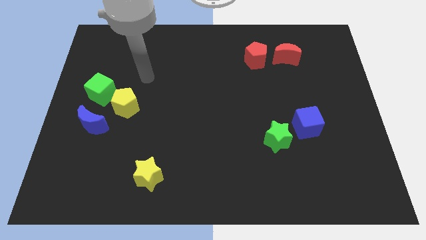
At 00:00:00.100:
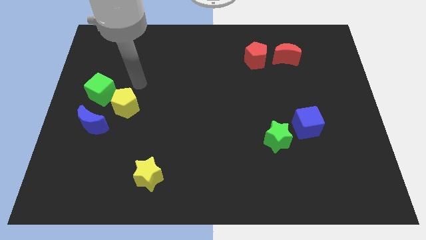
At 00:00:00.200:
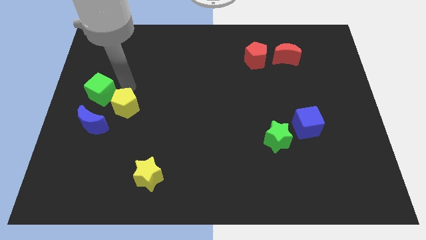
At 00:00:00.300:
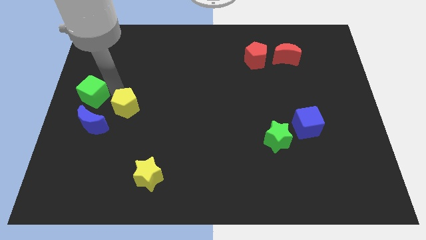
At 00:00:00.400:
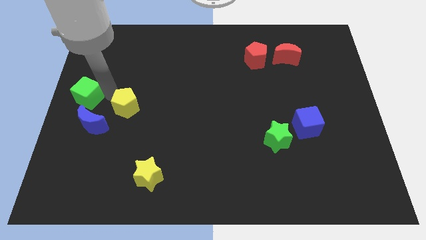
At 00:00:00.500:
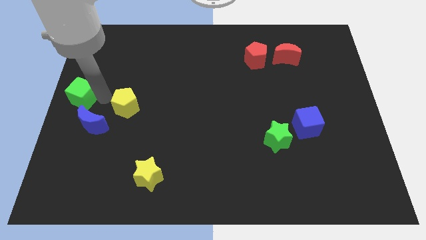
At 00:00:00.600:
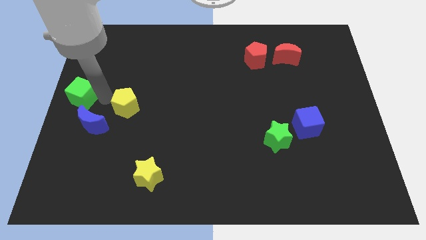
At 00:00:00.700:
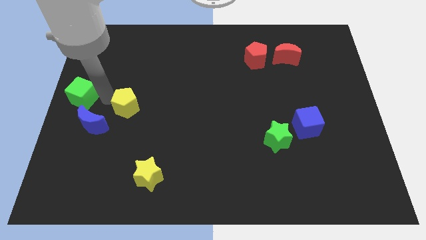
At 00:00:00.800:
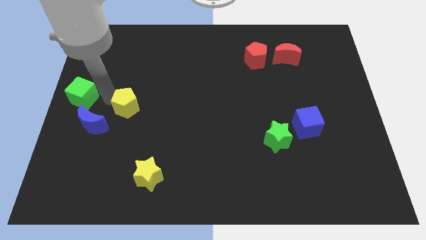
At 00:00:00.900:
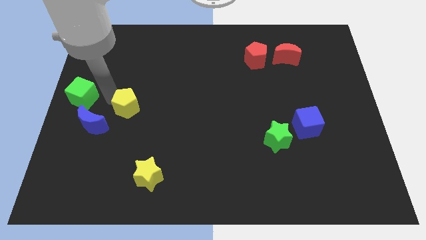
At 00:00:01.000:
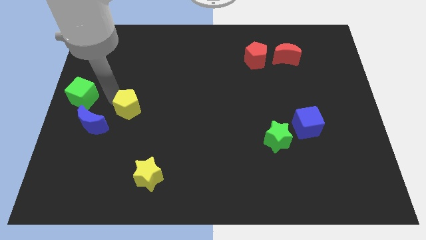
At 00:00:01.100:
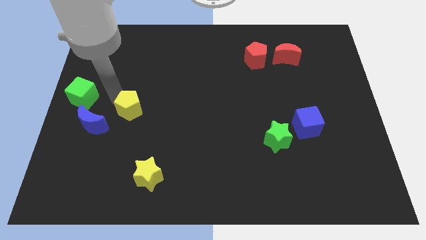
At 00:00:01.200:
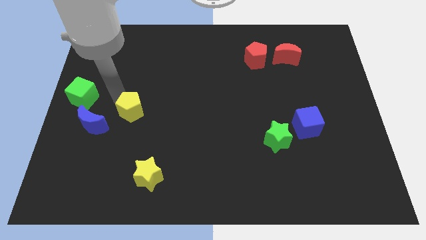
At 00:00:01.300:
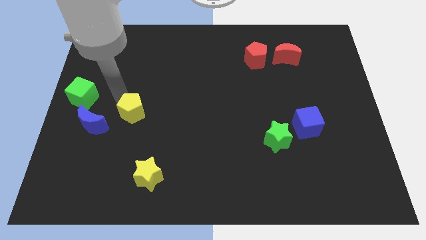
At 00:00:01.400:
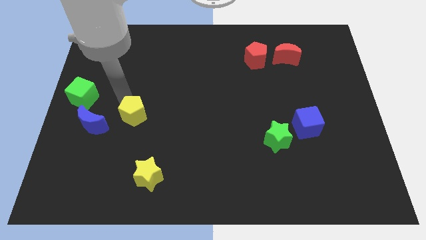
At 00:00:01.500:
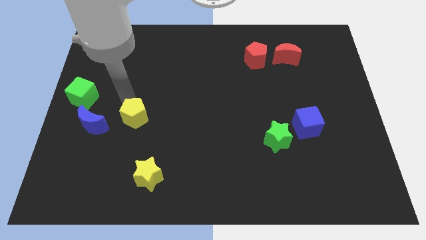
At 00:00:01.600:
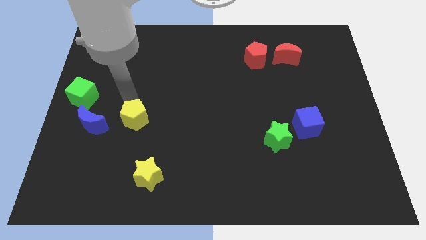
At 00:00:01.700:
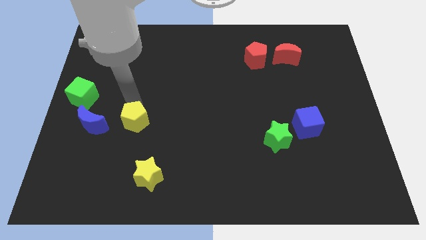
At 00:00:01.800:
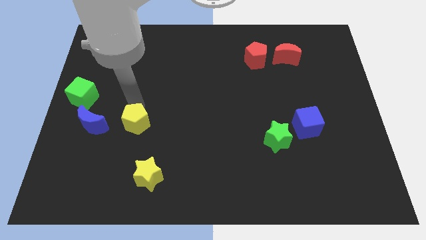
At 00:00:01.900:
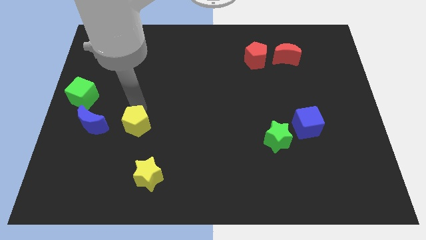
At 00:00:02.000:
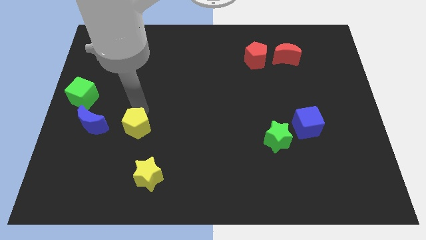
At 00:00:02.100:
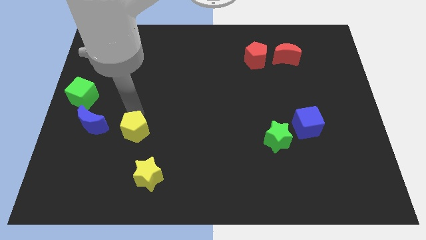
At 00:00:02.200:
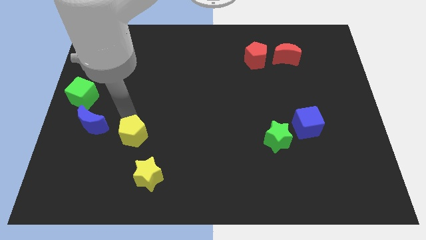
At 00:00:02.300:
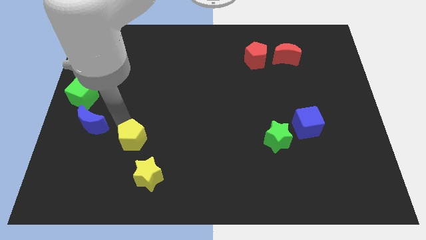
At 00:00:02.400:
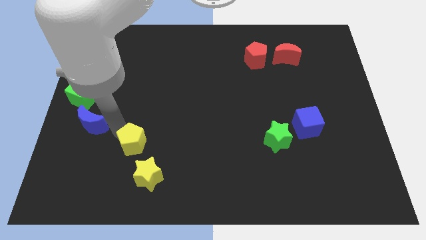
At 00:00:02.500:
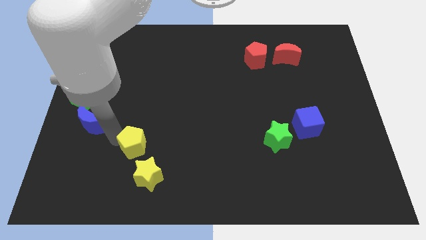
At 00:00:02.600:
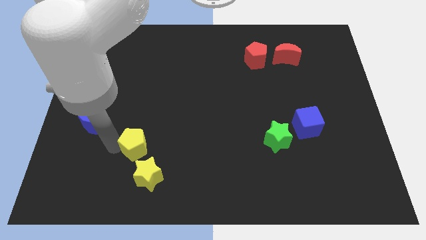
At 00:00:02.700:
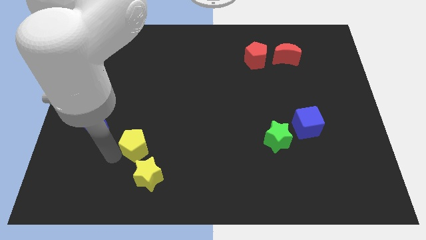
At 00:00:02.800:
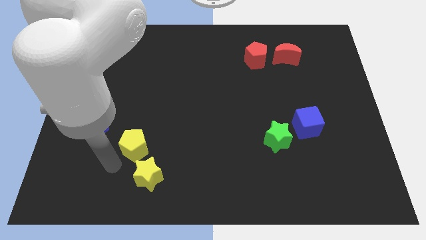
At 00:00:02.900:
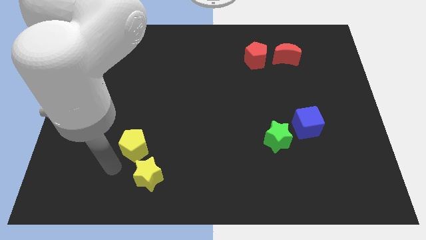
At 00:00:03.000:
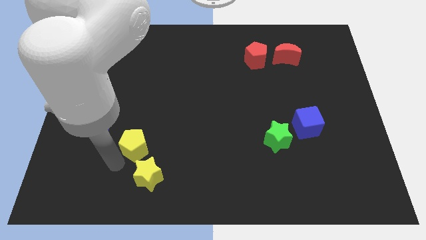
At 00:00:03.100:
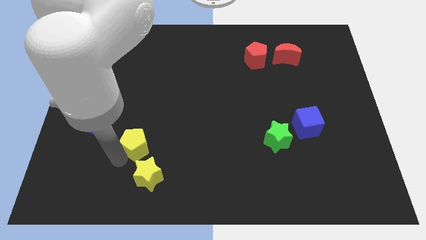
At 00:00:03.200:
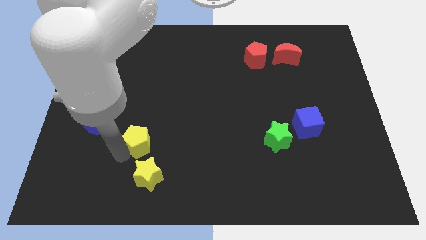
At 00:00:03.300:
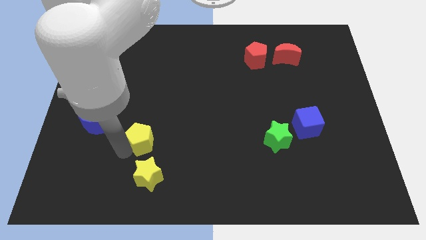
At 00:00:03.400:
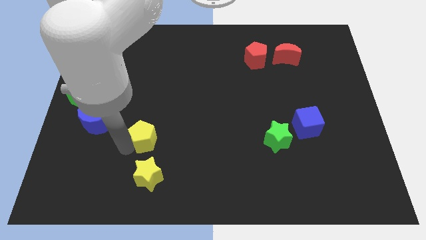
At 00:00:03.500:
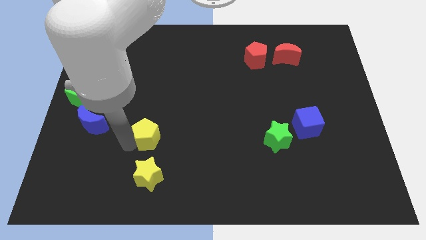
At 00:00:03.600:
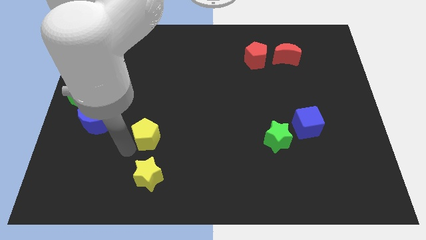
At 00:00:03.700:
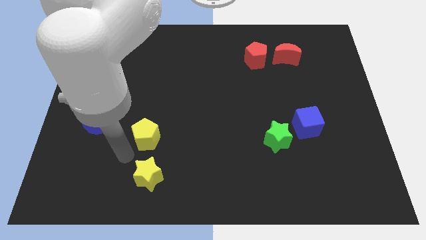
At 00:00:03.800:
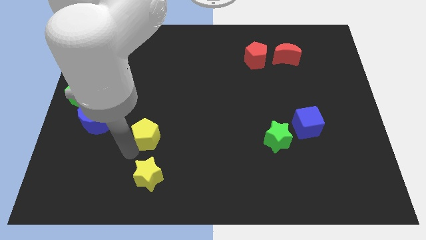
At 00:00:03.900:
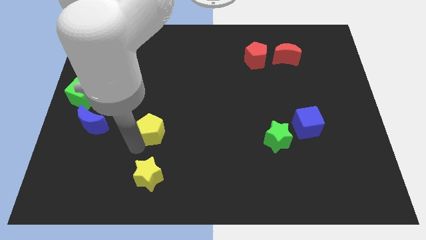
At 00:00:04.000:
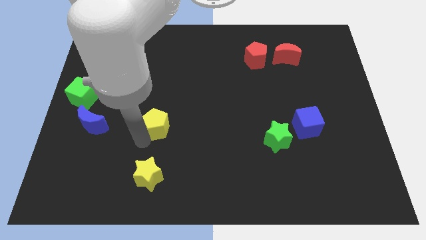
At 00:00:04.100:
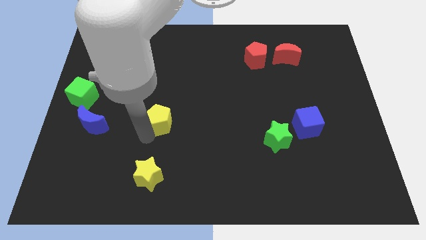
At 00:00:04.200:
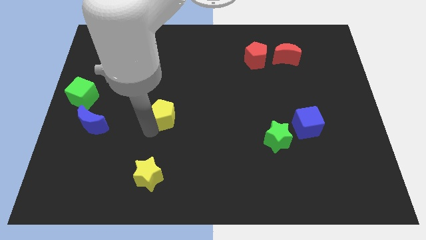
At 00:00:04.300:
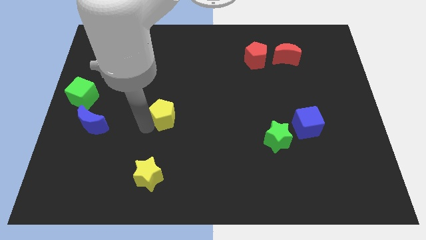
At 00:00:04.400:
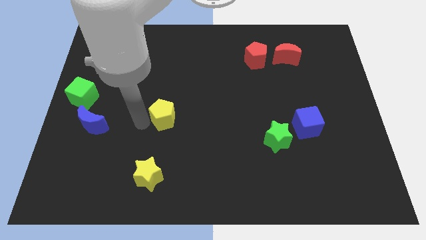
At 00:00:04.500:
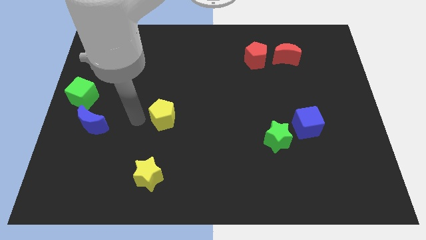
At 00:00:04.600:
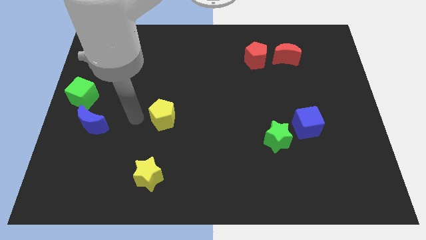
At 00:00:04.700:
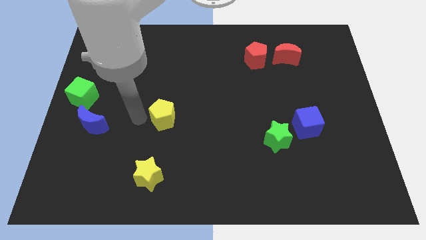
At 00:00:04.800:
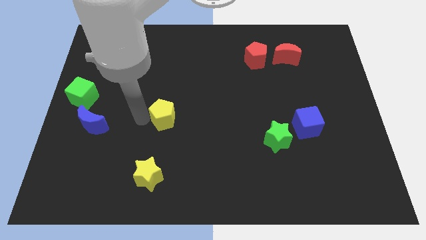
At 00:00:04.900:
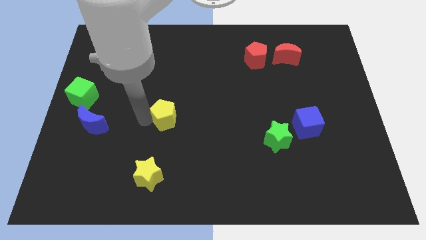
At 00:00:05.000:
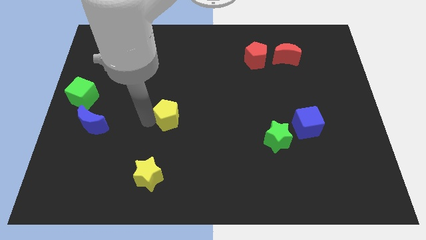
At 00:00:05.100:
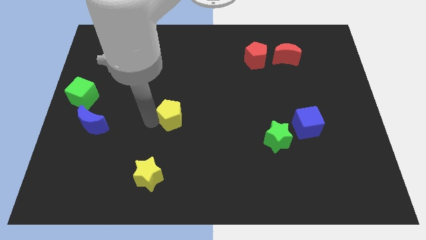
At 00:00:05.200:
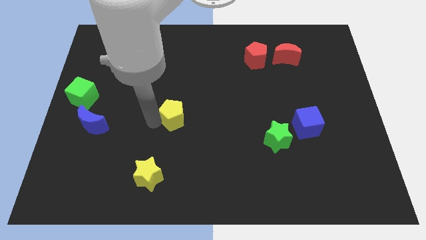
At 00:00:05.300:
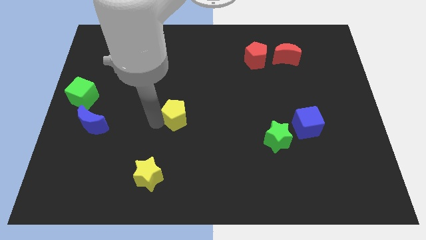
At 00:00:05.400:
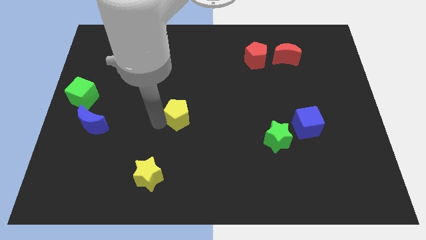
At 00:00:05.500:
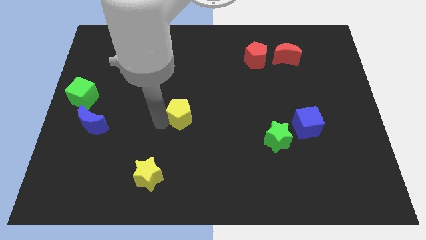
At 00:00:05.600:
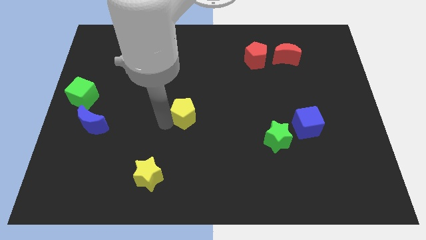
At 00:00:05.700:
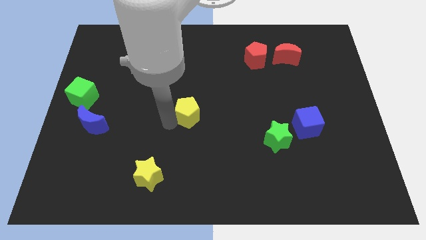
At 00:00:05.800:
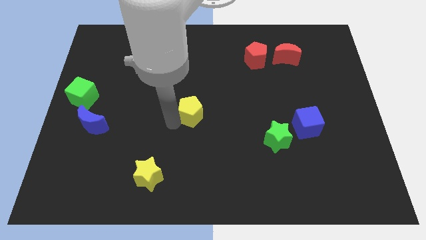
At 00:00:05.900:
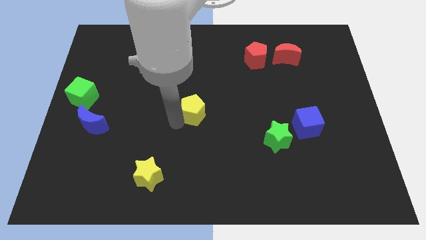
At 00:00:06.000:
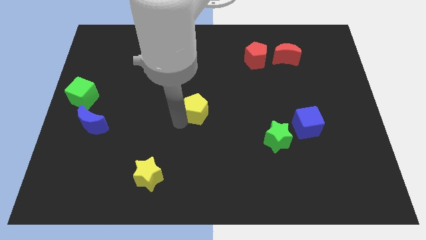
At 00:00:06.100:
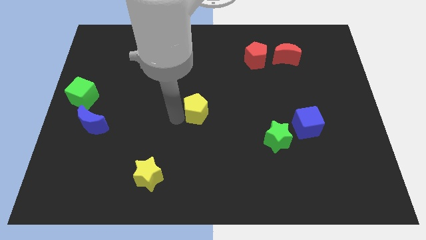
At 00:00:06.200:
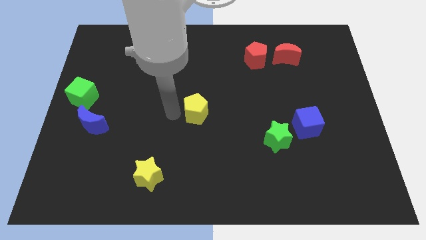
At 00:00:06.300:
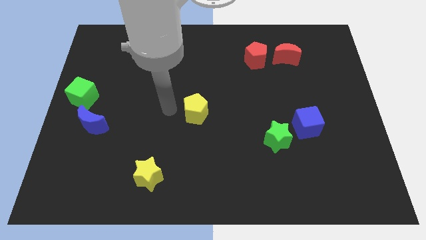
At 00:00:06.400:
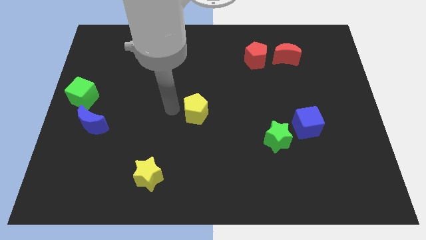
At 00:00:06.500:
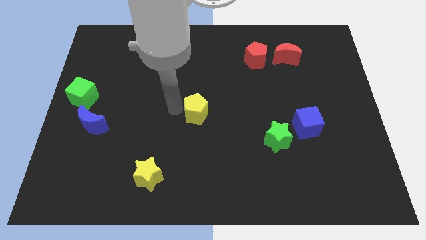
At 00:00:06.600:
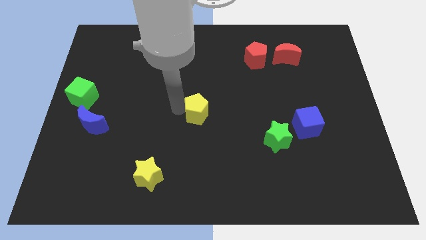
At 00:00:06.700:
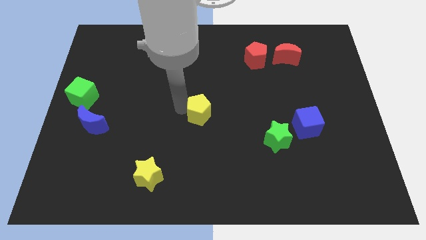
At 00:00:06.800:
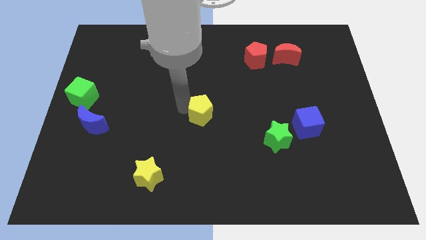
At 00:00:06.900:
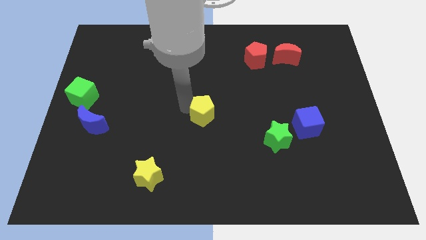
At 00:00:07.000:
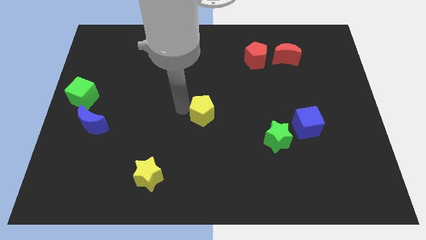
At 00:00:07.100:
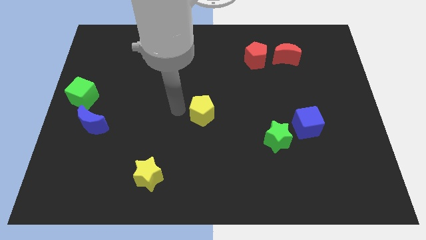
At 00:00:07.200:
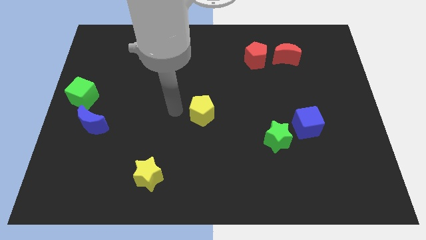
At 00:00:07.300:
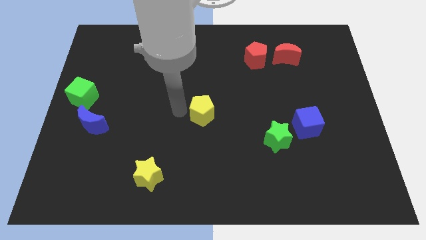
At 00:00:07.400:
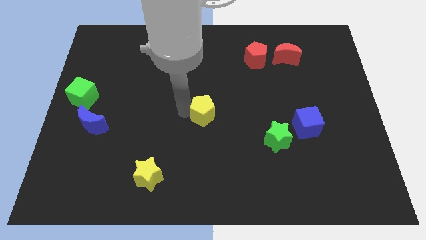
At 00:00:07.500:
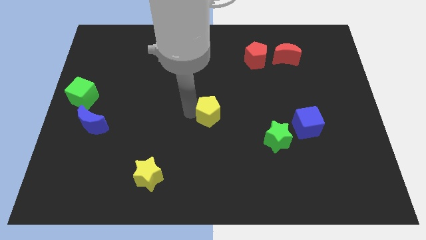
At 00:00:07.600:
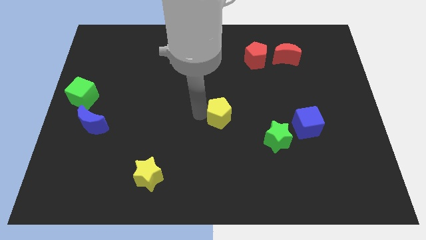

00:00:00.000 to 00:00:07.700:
push the yellow pentagon to the right
